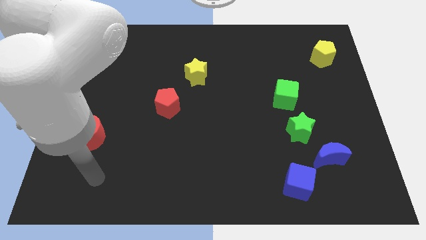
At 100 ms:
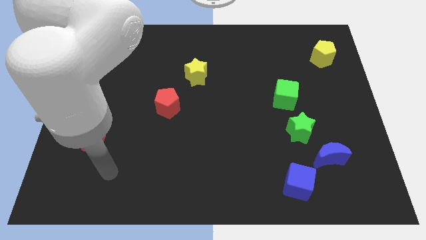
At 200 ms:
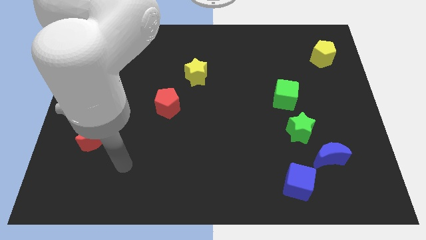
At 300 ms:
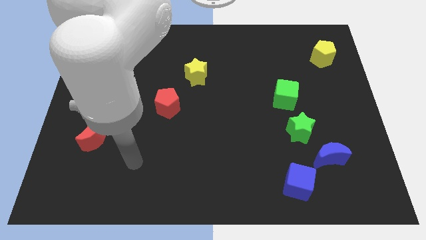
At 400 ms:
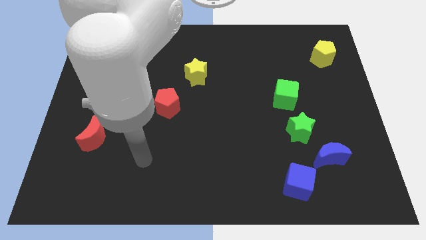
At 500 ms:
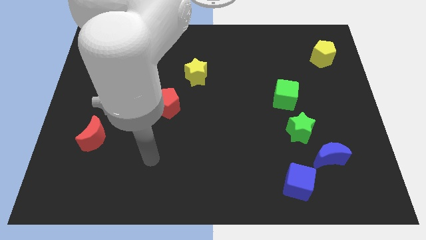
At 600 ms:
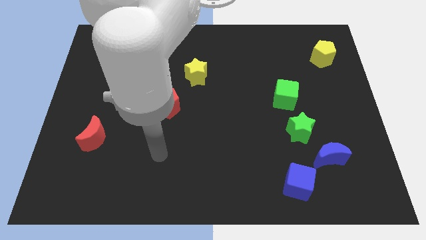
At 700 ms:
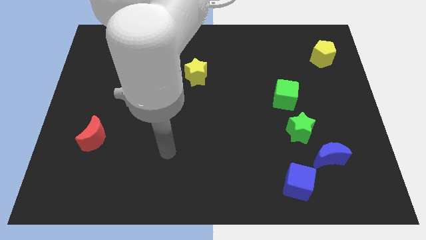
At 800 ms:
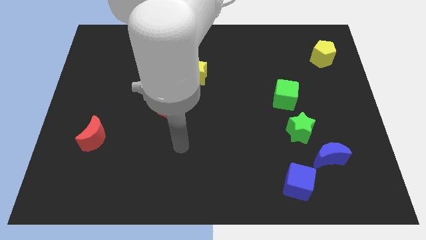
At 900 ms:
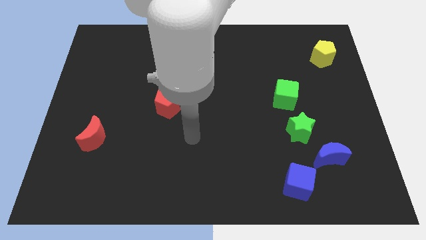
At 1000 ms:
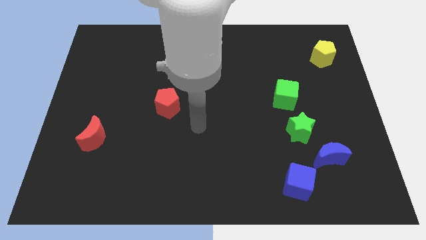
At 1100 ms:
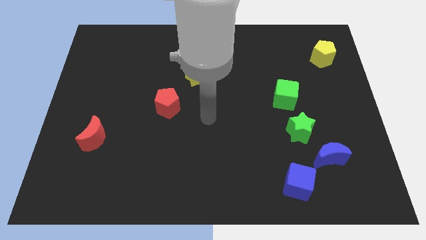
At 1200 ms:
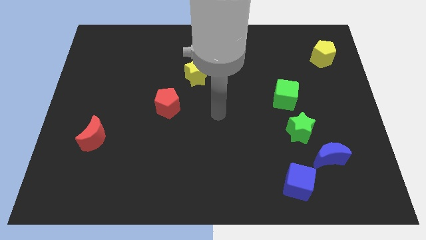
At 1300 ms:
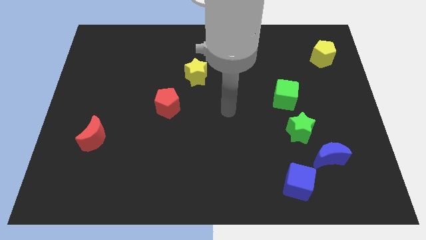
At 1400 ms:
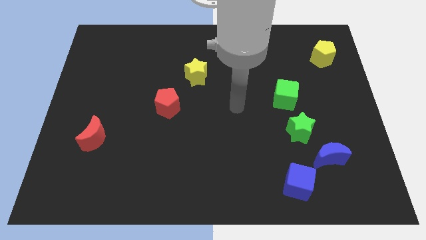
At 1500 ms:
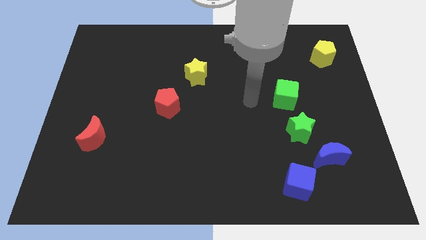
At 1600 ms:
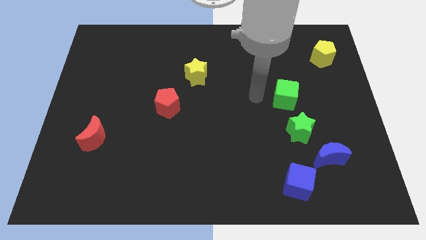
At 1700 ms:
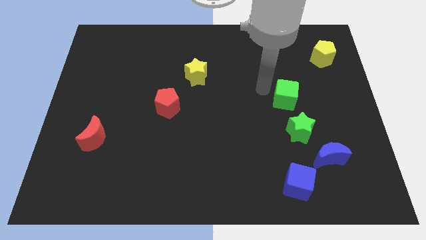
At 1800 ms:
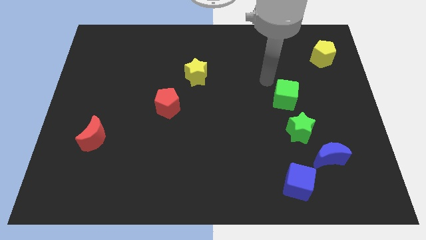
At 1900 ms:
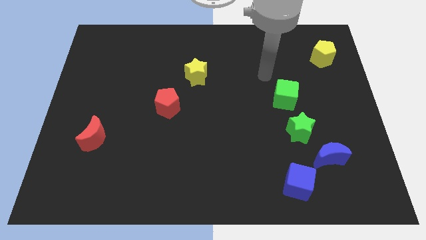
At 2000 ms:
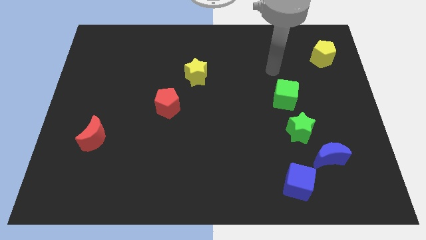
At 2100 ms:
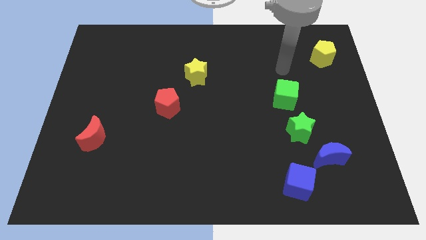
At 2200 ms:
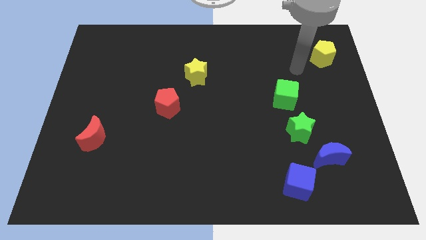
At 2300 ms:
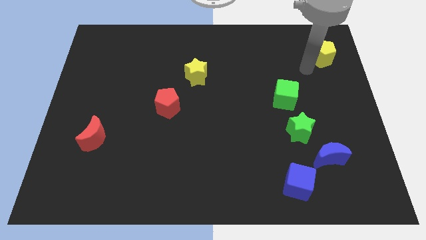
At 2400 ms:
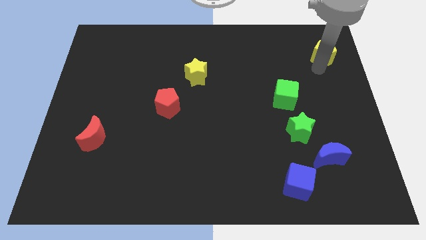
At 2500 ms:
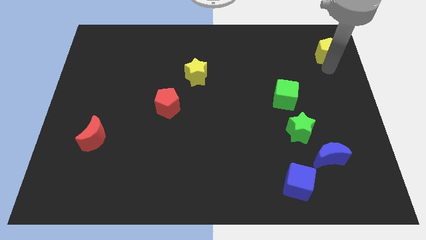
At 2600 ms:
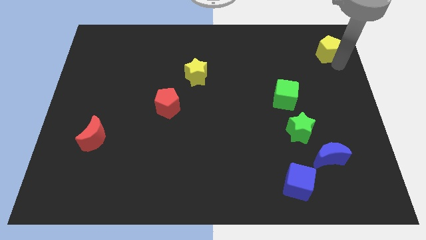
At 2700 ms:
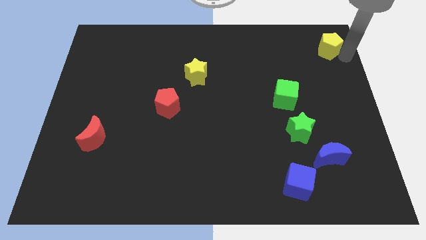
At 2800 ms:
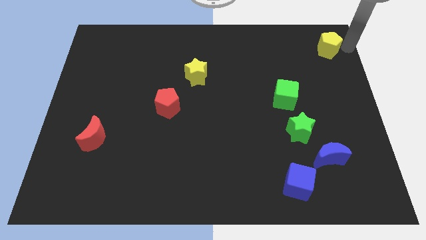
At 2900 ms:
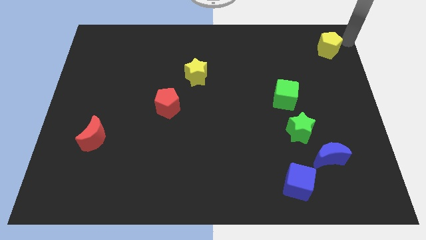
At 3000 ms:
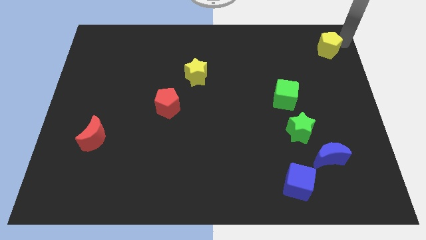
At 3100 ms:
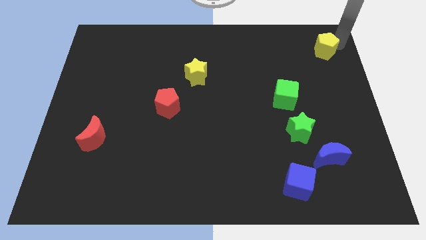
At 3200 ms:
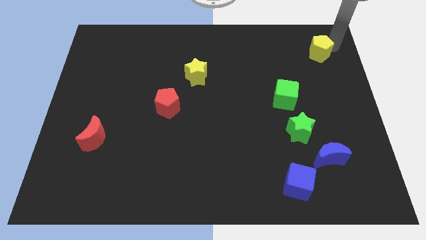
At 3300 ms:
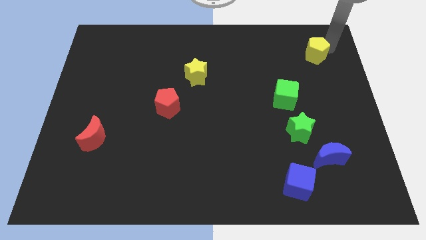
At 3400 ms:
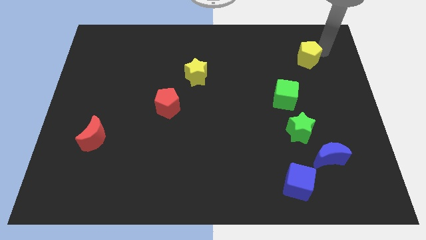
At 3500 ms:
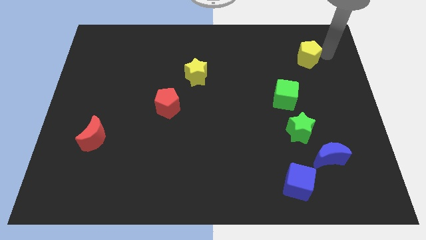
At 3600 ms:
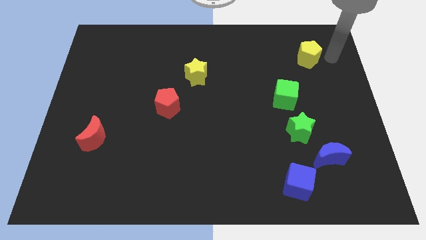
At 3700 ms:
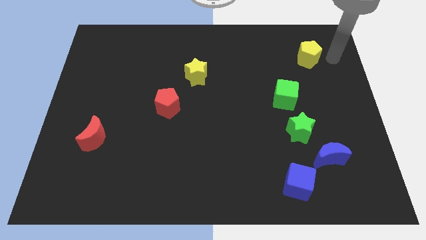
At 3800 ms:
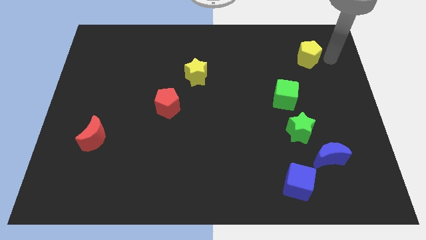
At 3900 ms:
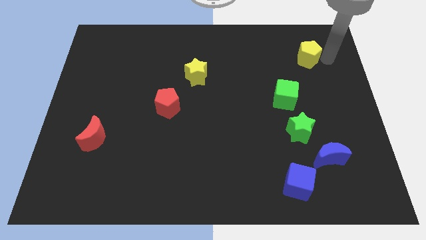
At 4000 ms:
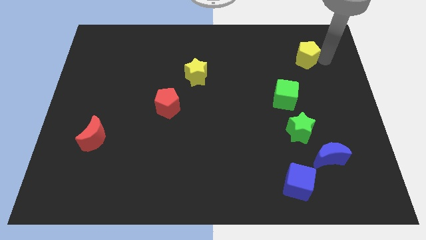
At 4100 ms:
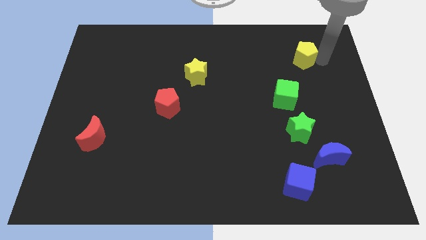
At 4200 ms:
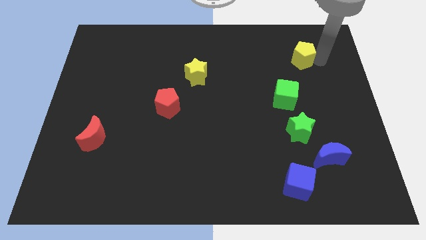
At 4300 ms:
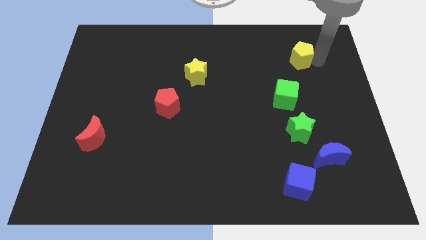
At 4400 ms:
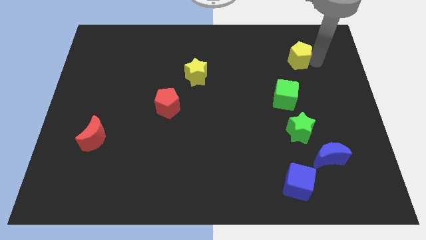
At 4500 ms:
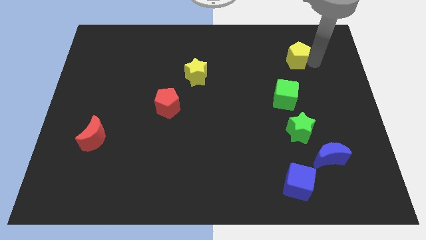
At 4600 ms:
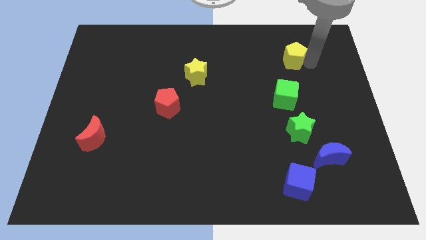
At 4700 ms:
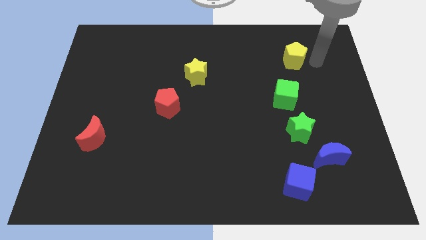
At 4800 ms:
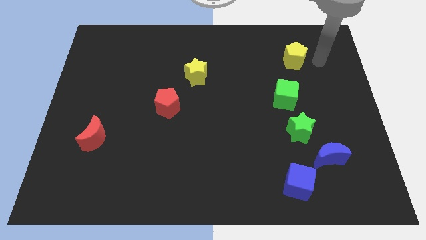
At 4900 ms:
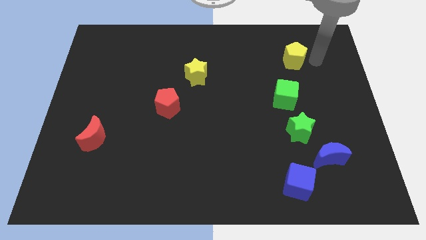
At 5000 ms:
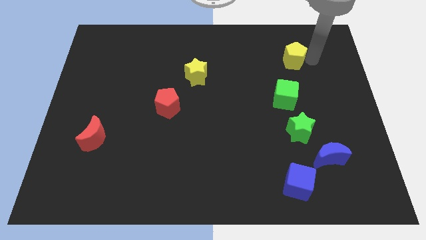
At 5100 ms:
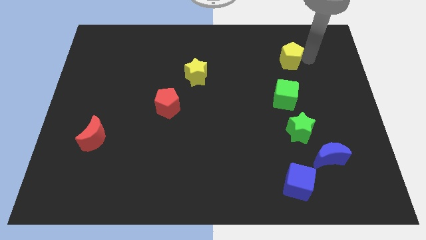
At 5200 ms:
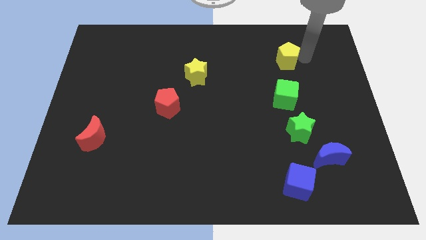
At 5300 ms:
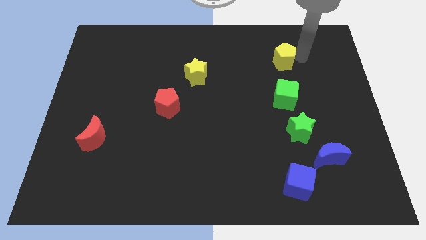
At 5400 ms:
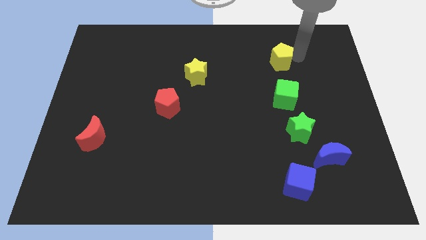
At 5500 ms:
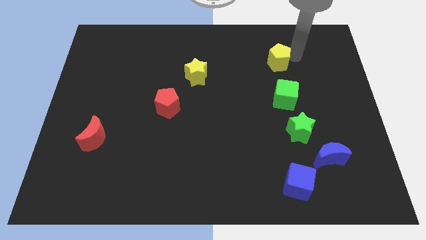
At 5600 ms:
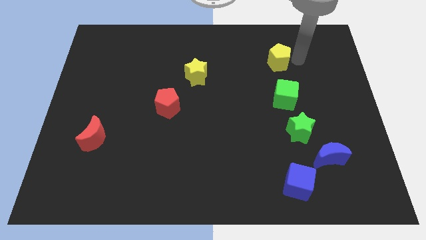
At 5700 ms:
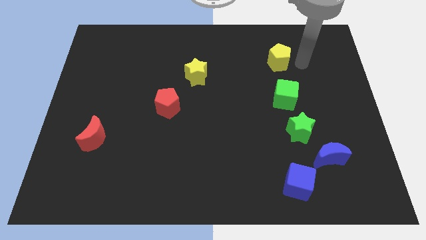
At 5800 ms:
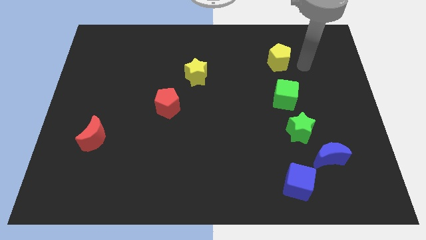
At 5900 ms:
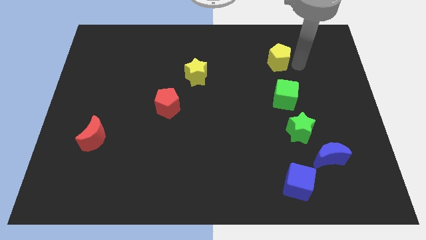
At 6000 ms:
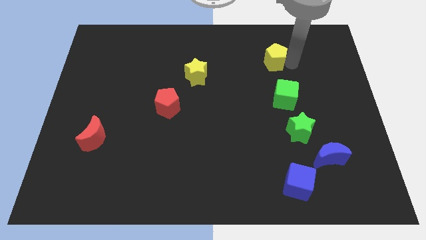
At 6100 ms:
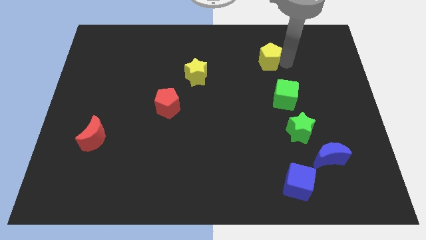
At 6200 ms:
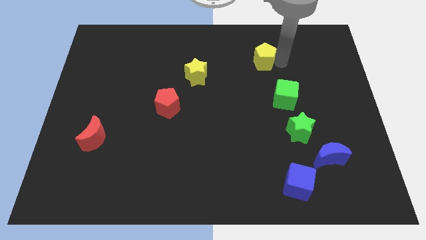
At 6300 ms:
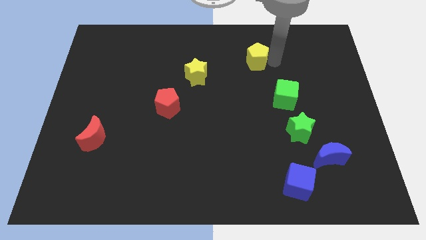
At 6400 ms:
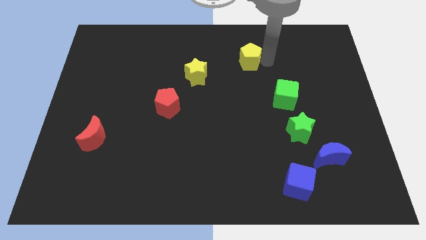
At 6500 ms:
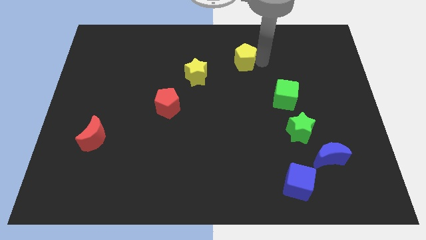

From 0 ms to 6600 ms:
slide the yellow pentagon left

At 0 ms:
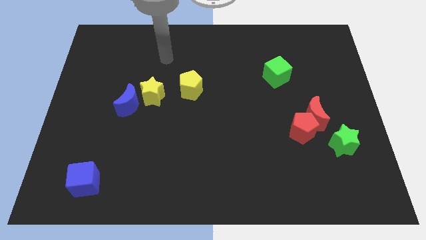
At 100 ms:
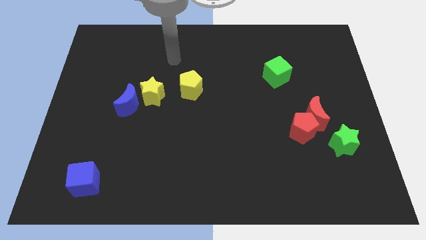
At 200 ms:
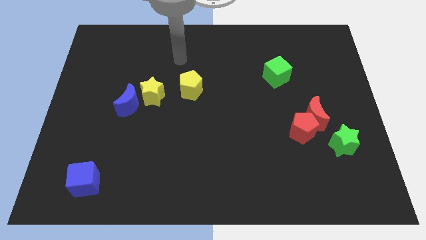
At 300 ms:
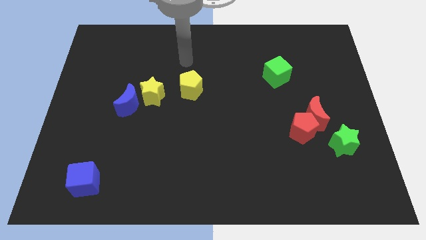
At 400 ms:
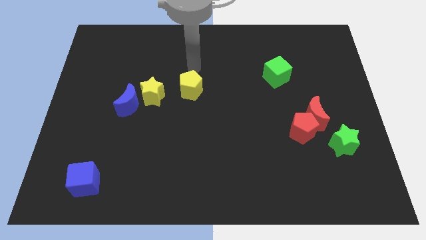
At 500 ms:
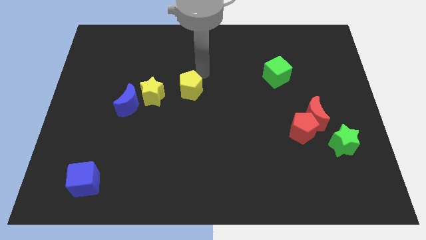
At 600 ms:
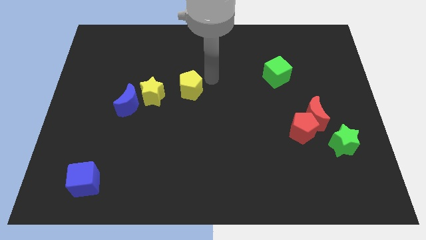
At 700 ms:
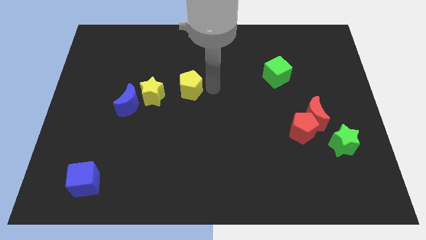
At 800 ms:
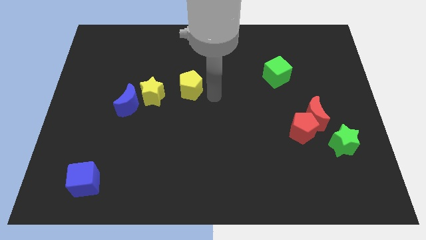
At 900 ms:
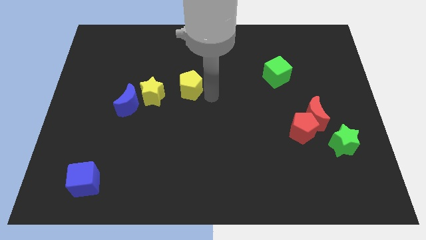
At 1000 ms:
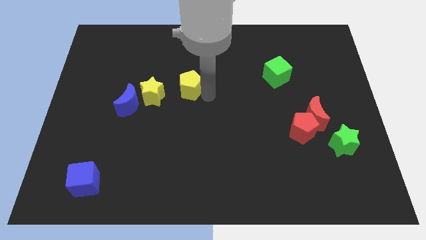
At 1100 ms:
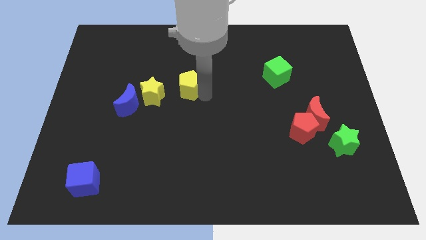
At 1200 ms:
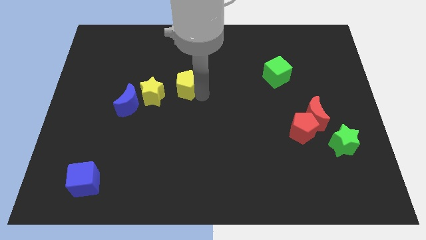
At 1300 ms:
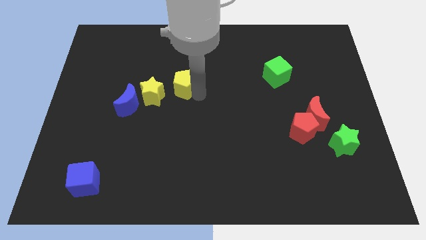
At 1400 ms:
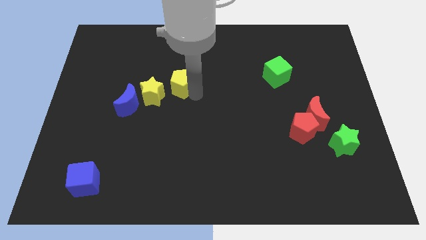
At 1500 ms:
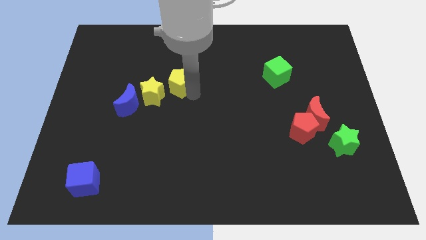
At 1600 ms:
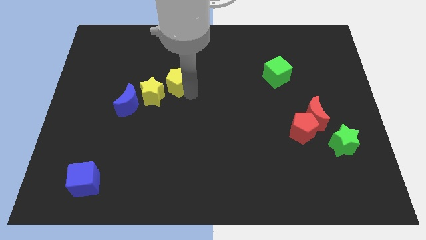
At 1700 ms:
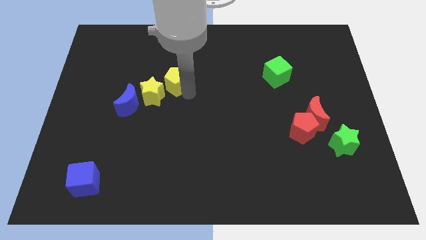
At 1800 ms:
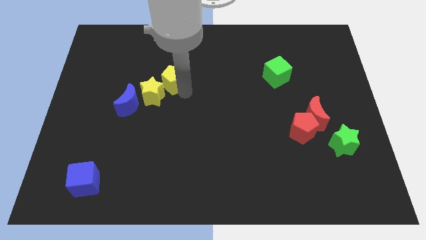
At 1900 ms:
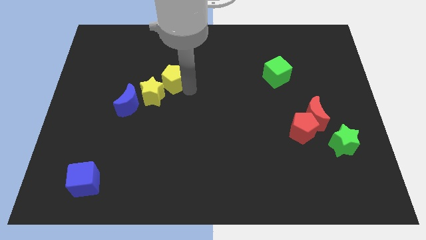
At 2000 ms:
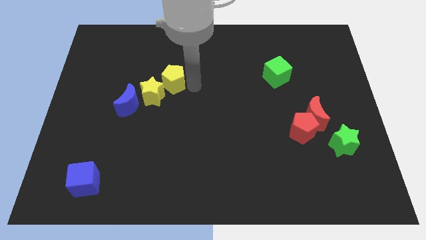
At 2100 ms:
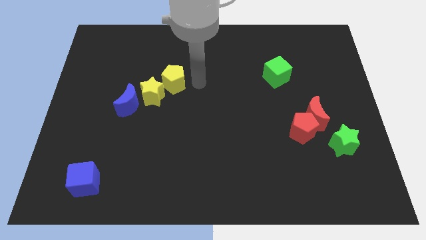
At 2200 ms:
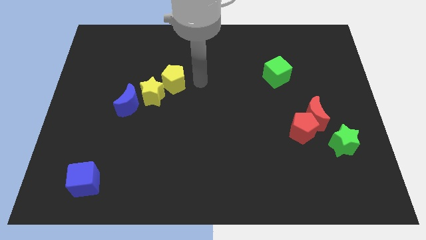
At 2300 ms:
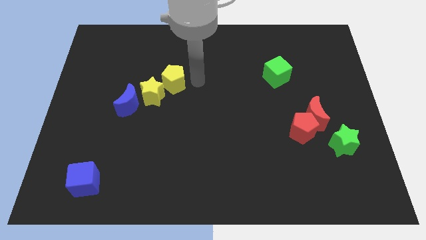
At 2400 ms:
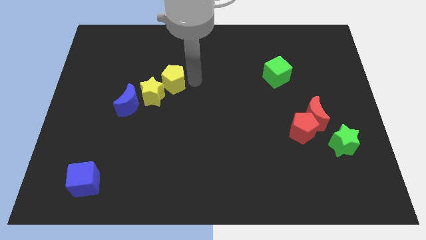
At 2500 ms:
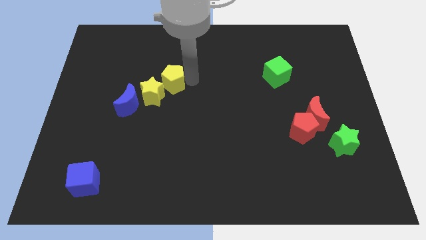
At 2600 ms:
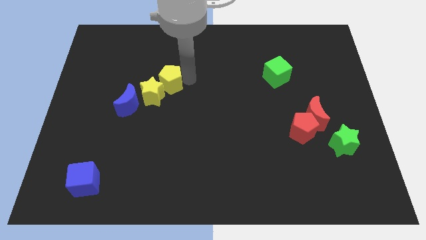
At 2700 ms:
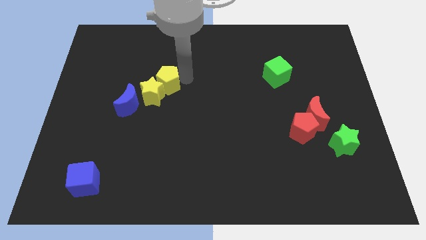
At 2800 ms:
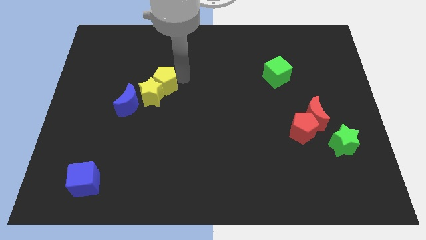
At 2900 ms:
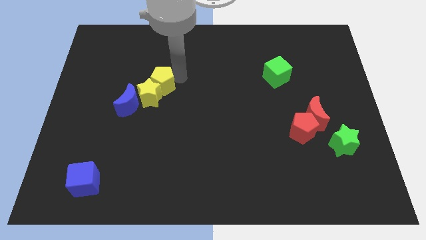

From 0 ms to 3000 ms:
slide the yellow pentagon left slightly
